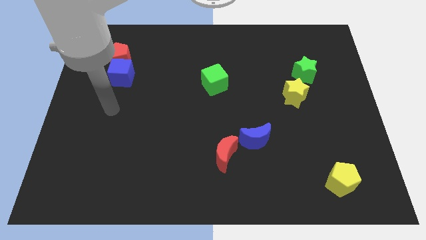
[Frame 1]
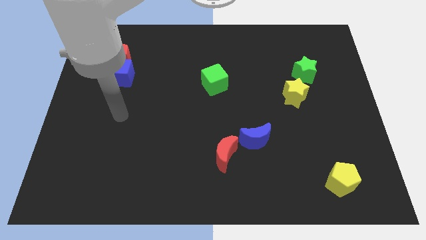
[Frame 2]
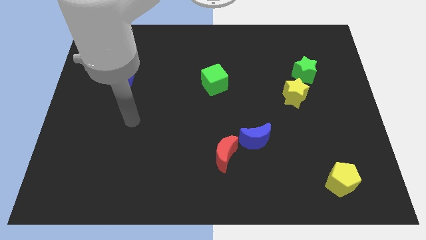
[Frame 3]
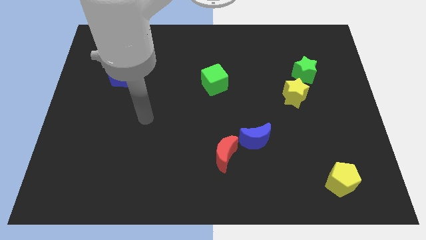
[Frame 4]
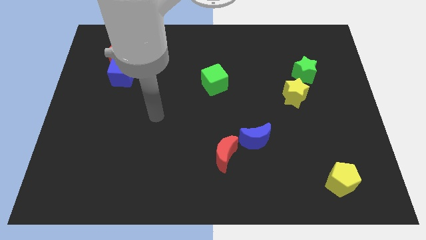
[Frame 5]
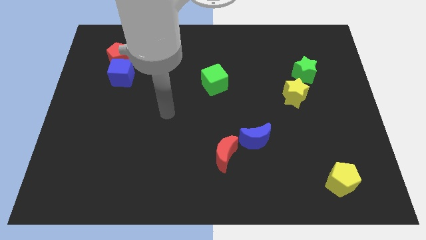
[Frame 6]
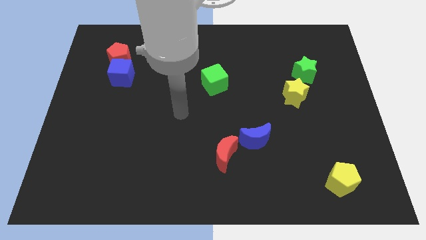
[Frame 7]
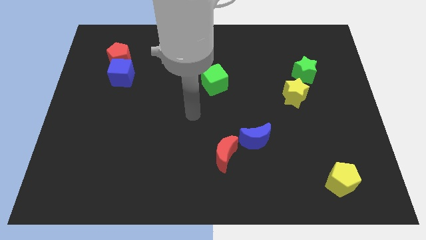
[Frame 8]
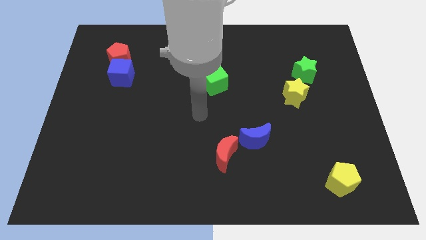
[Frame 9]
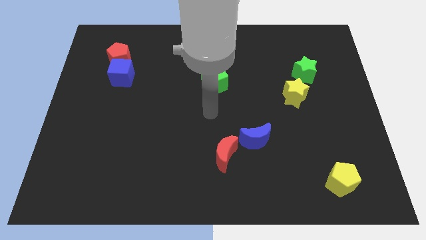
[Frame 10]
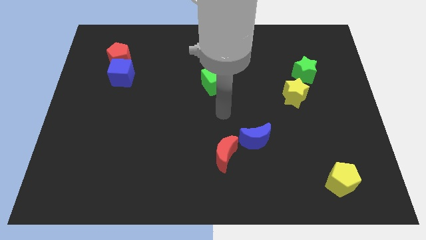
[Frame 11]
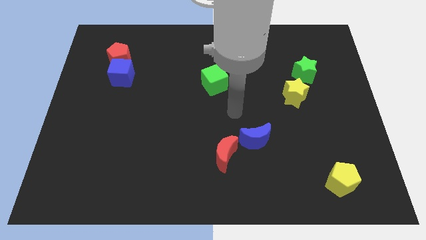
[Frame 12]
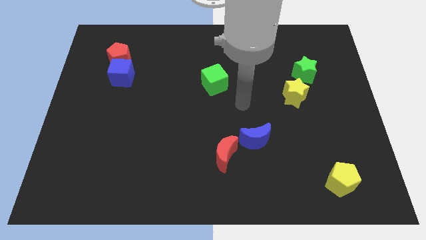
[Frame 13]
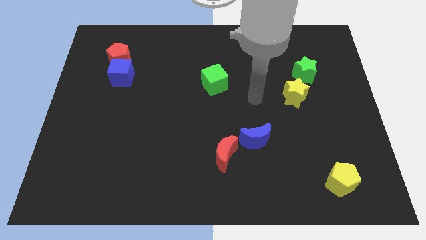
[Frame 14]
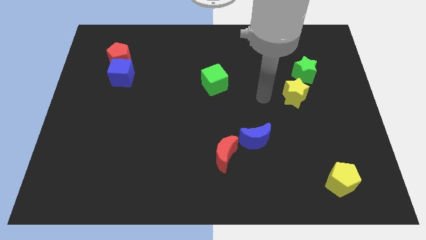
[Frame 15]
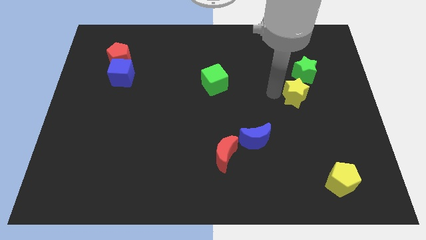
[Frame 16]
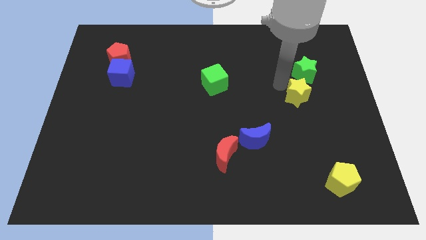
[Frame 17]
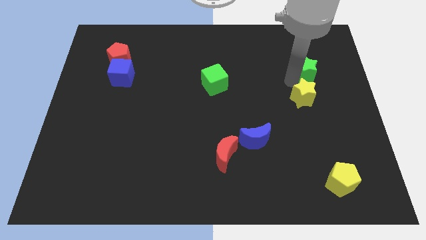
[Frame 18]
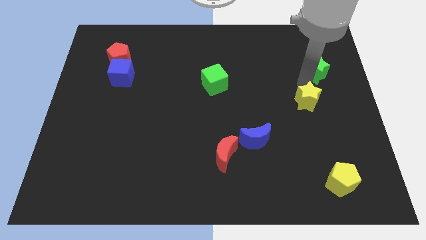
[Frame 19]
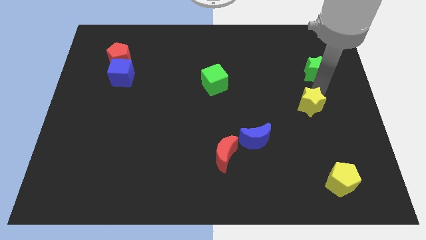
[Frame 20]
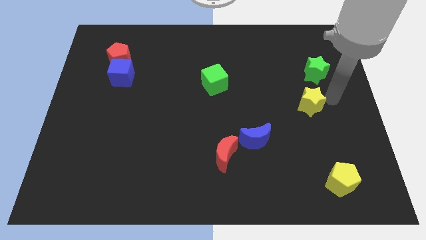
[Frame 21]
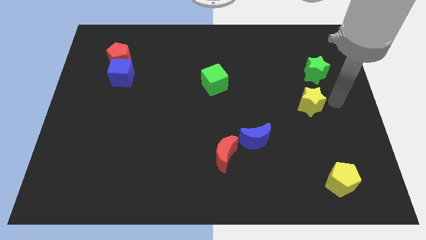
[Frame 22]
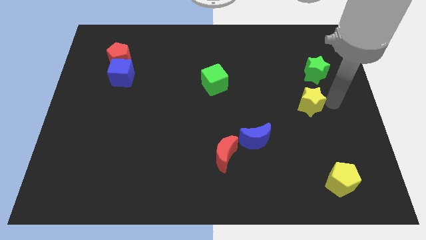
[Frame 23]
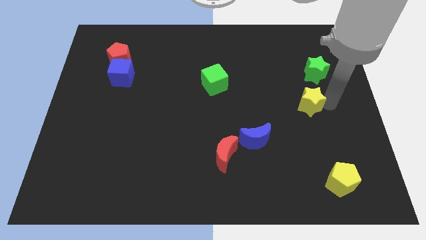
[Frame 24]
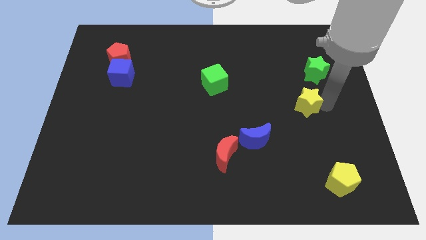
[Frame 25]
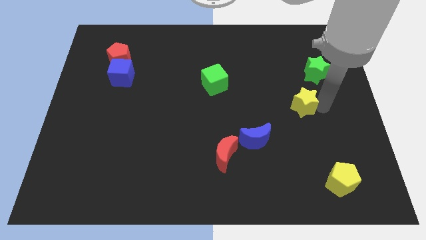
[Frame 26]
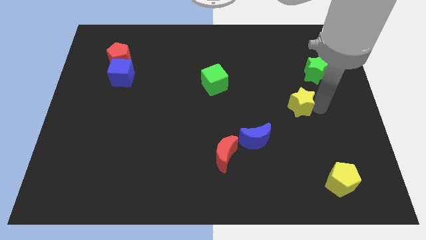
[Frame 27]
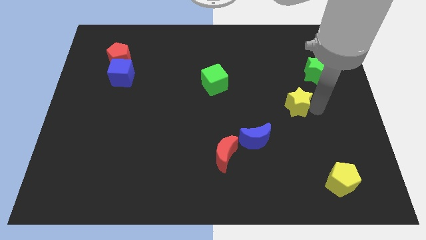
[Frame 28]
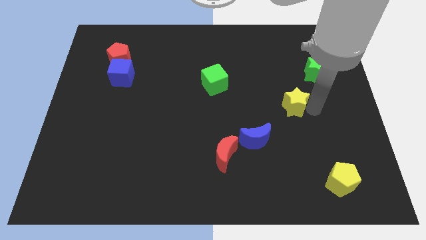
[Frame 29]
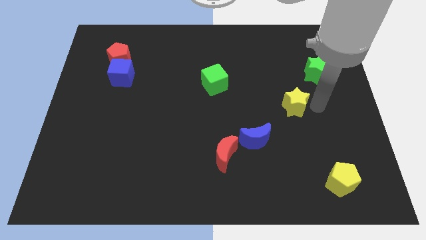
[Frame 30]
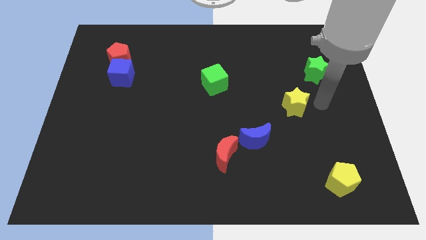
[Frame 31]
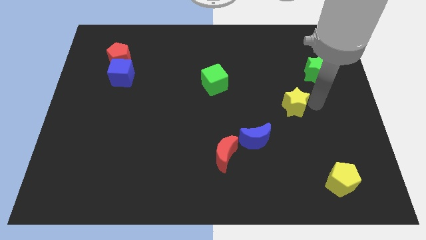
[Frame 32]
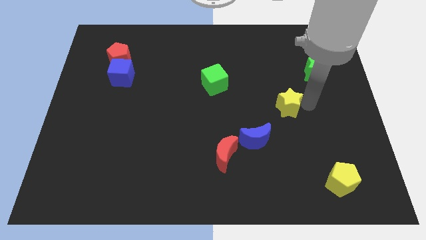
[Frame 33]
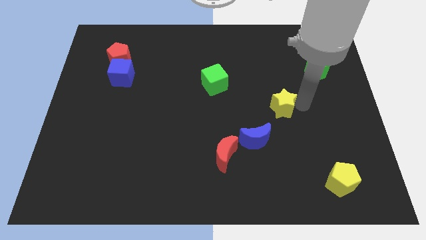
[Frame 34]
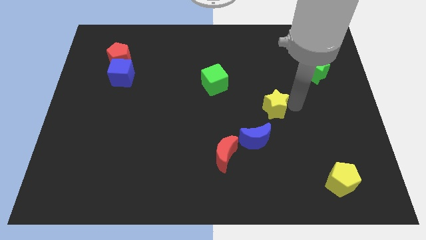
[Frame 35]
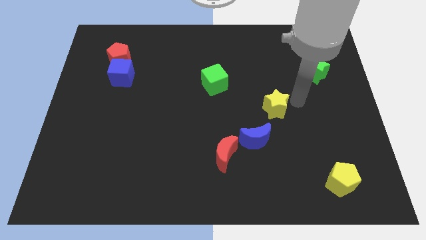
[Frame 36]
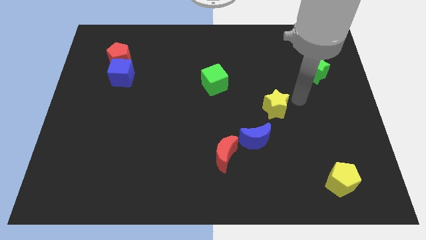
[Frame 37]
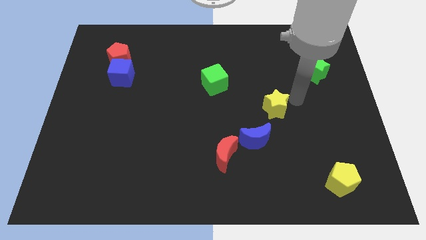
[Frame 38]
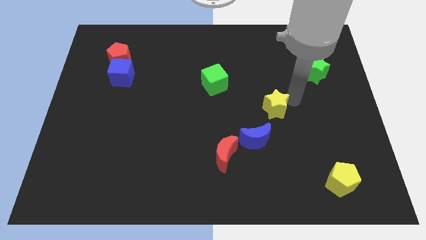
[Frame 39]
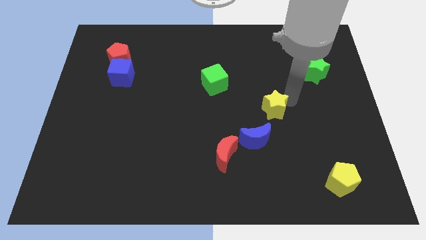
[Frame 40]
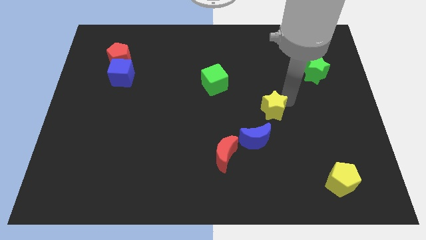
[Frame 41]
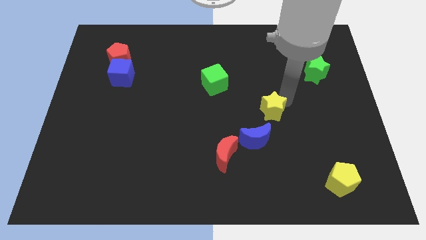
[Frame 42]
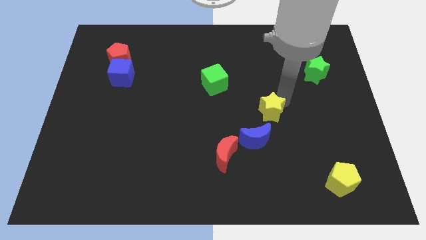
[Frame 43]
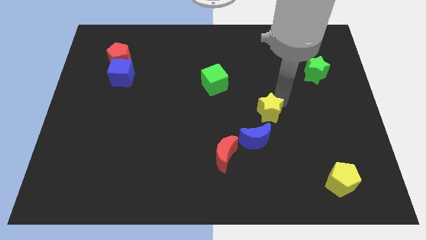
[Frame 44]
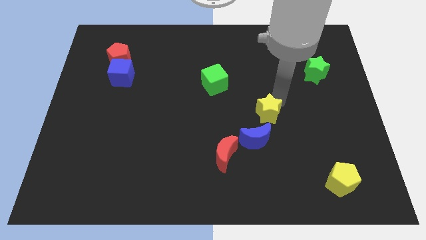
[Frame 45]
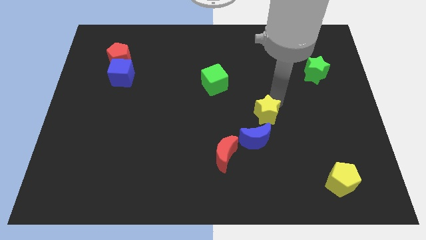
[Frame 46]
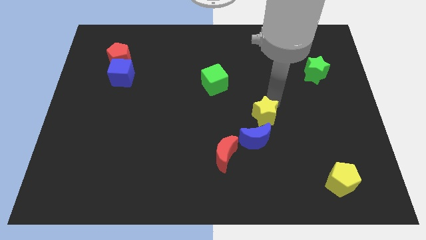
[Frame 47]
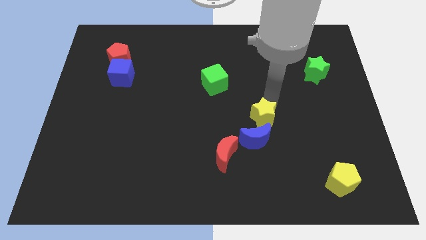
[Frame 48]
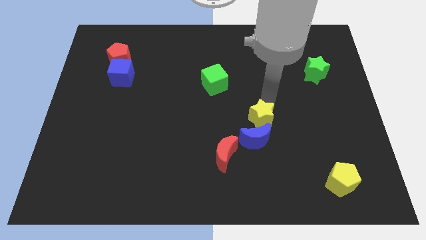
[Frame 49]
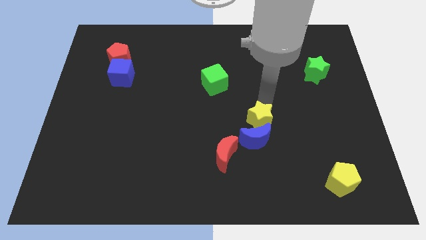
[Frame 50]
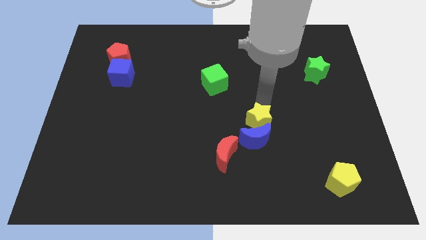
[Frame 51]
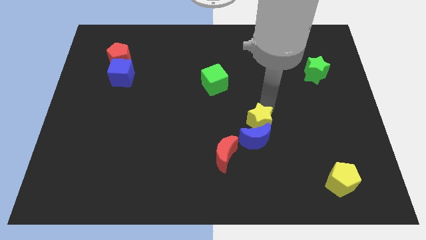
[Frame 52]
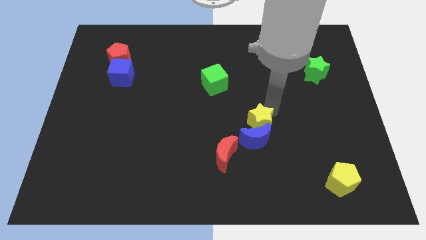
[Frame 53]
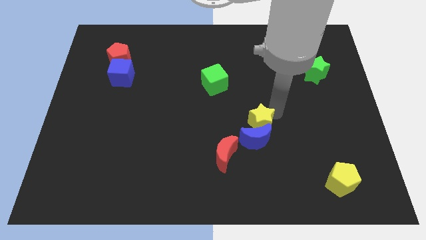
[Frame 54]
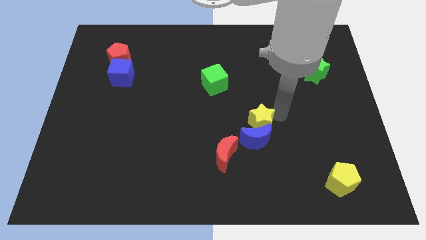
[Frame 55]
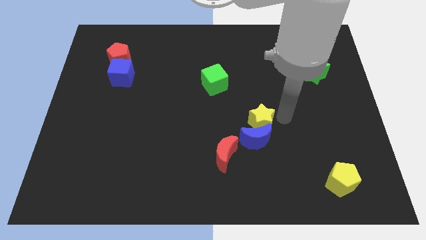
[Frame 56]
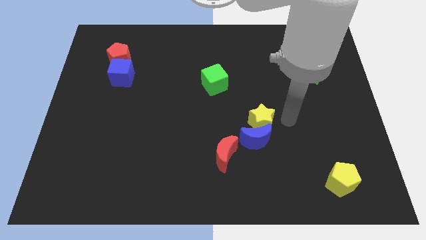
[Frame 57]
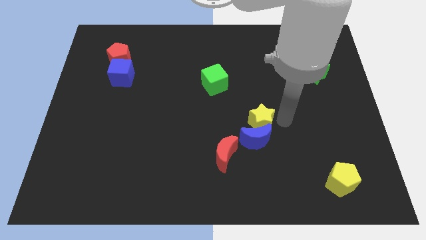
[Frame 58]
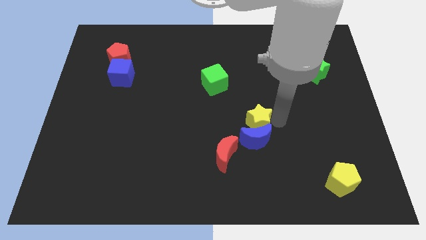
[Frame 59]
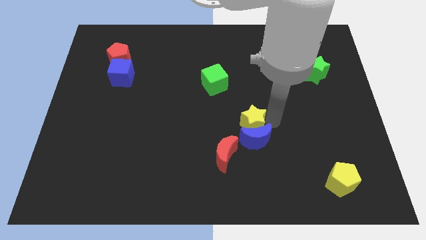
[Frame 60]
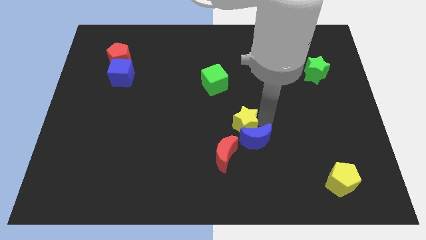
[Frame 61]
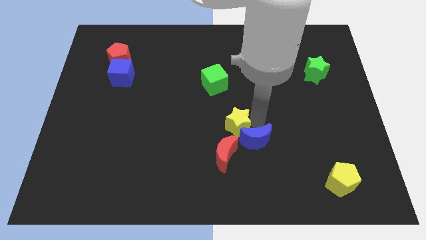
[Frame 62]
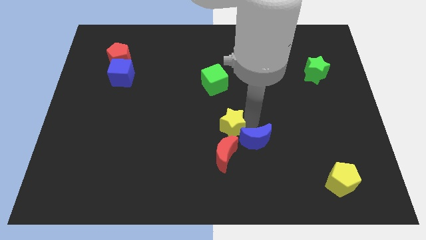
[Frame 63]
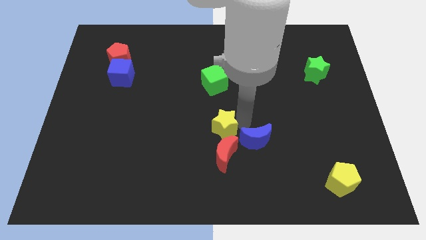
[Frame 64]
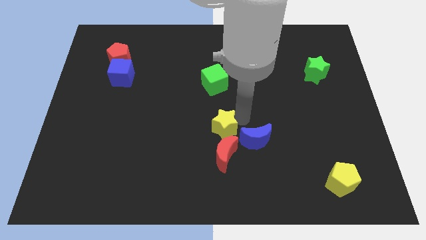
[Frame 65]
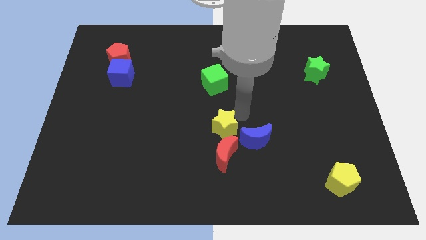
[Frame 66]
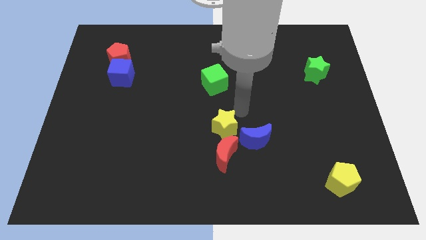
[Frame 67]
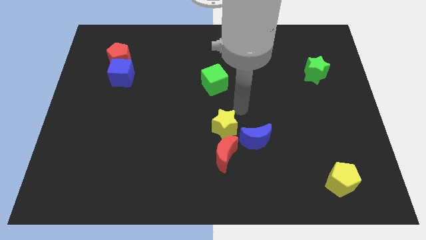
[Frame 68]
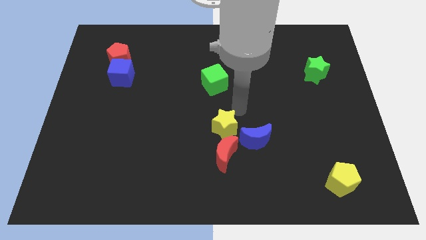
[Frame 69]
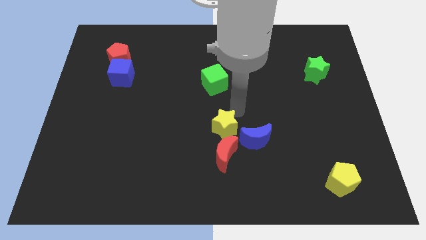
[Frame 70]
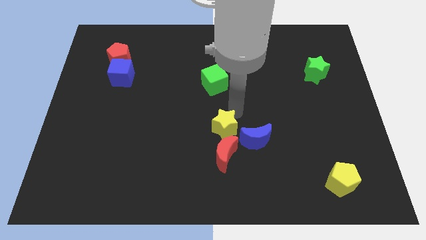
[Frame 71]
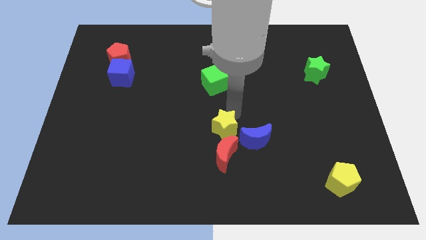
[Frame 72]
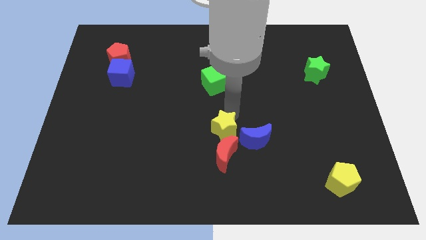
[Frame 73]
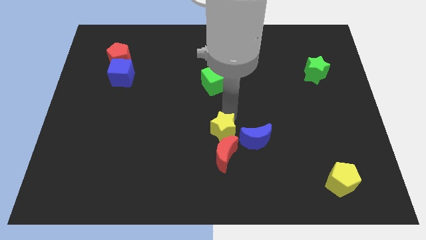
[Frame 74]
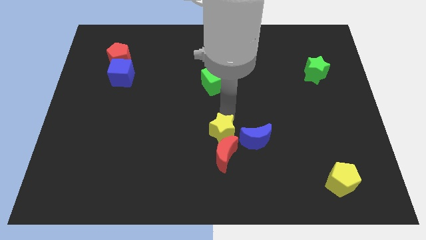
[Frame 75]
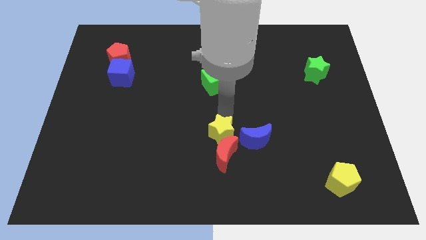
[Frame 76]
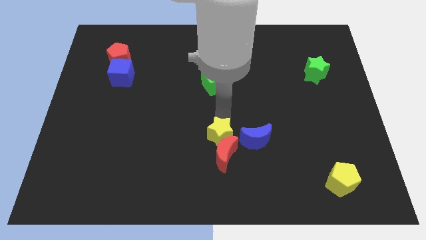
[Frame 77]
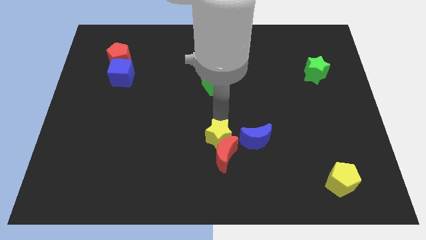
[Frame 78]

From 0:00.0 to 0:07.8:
slide the yellow star downwards and then to the left
